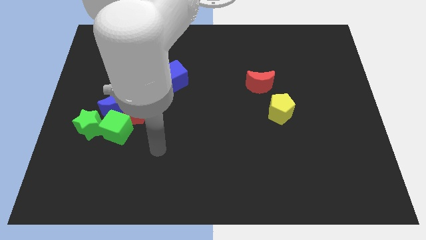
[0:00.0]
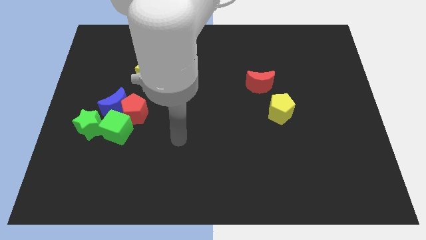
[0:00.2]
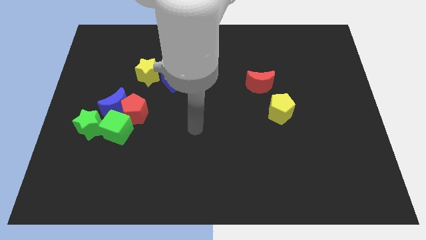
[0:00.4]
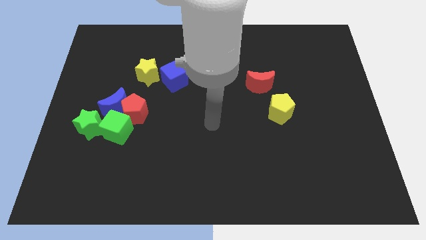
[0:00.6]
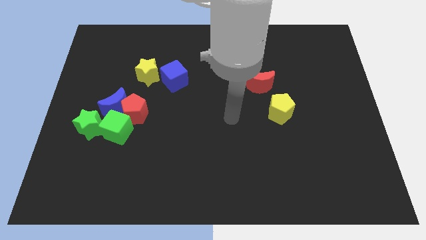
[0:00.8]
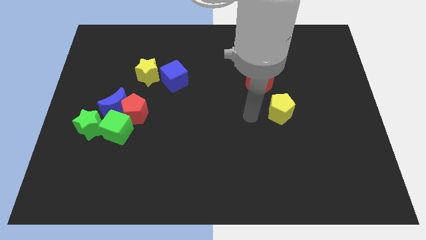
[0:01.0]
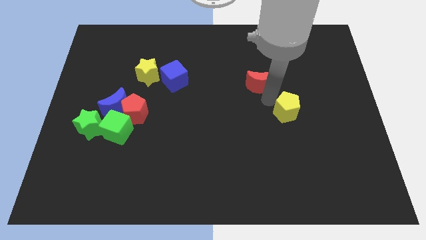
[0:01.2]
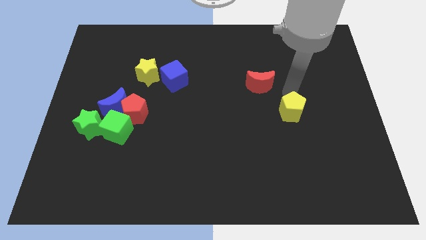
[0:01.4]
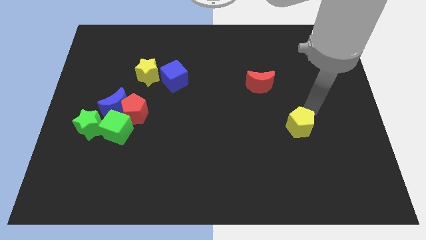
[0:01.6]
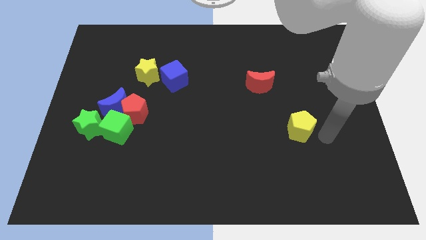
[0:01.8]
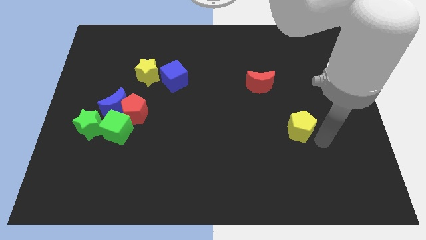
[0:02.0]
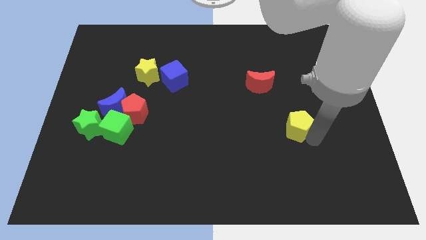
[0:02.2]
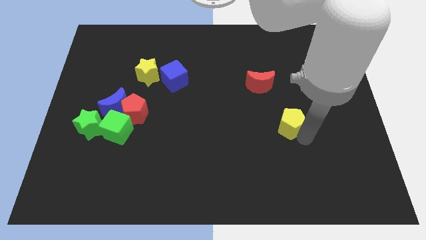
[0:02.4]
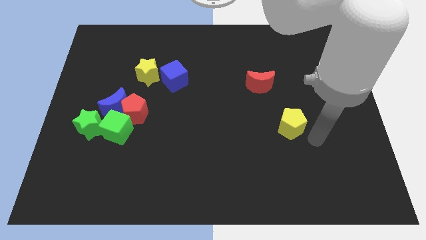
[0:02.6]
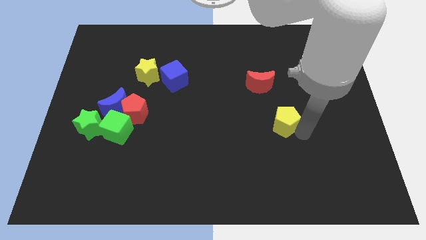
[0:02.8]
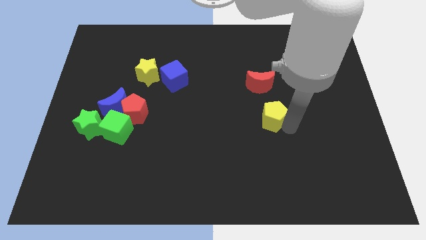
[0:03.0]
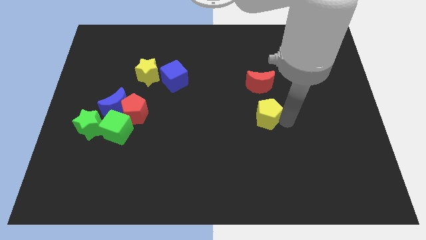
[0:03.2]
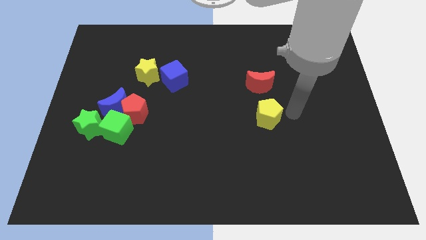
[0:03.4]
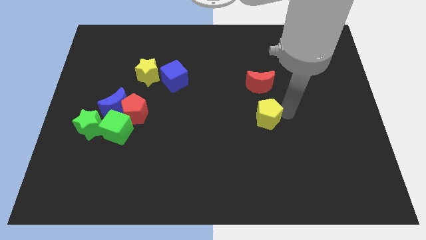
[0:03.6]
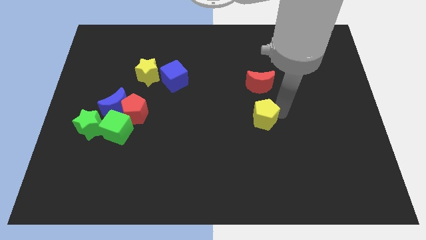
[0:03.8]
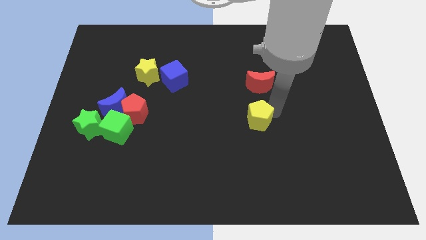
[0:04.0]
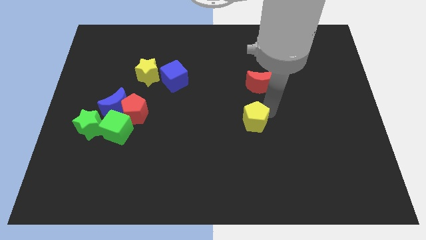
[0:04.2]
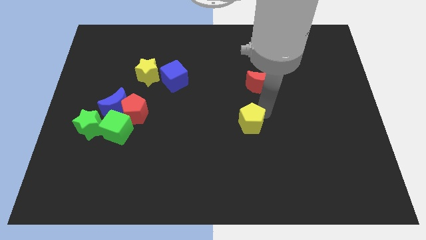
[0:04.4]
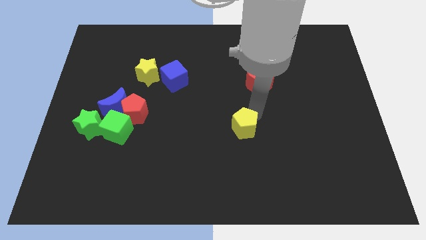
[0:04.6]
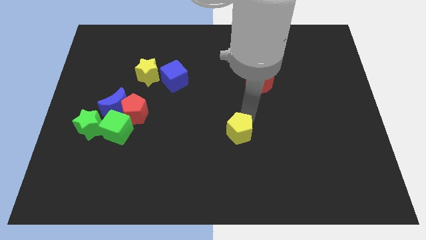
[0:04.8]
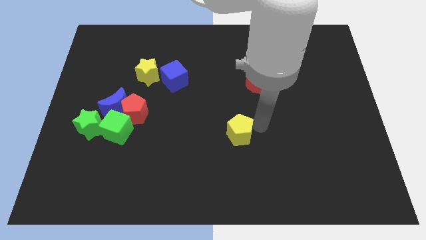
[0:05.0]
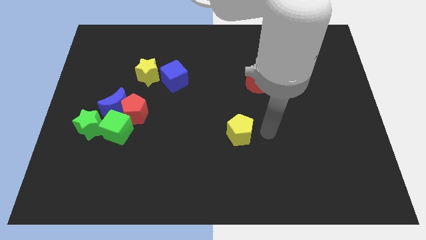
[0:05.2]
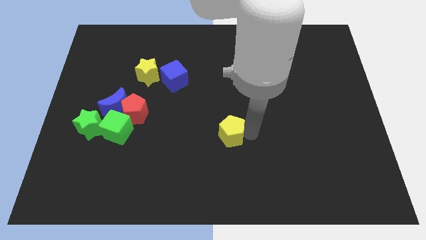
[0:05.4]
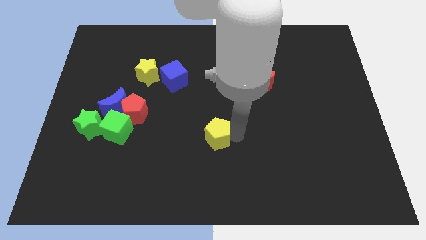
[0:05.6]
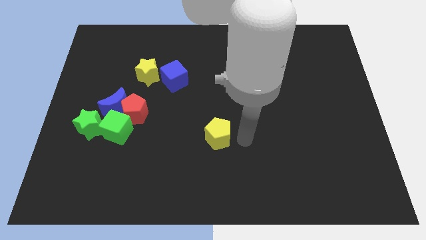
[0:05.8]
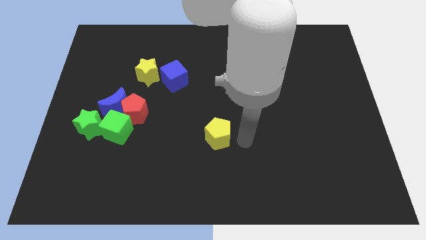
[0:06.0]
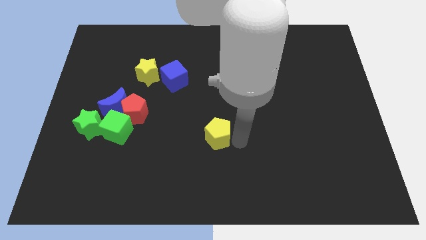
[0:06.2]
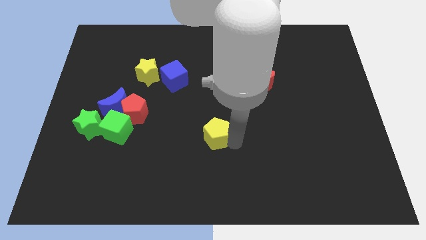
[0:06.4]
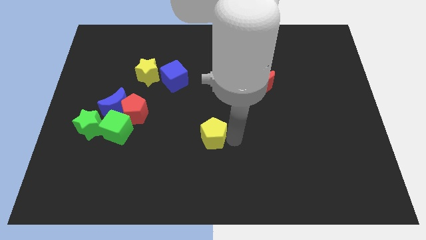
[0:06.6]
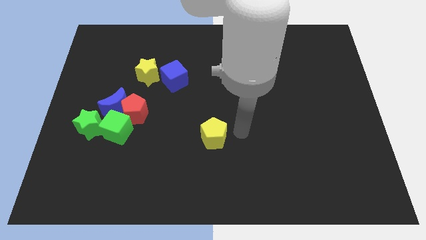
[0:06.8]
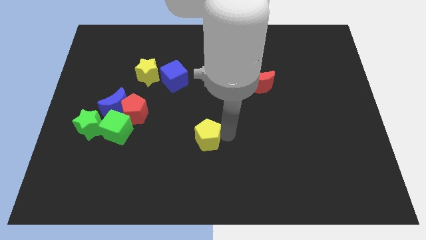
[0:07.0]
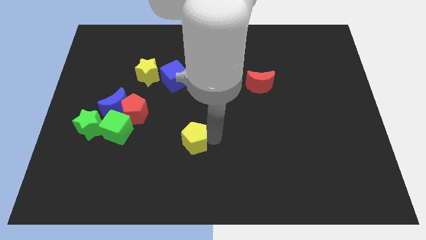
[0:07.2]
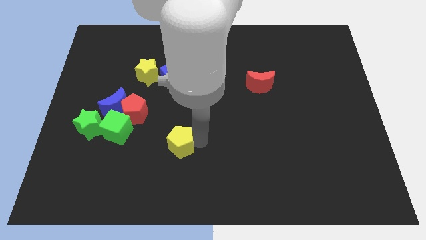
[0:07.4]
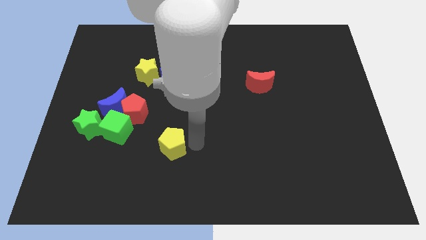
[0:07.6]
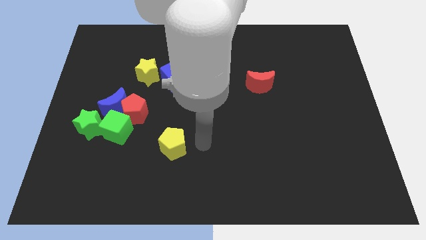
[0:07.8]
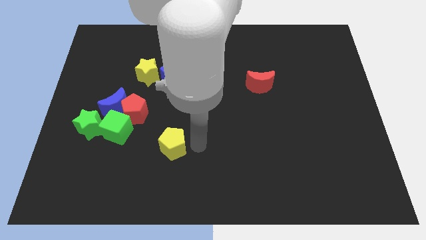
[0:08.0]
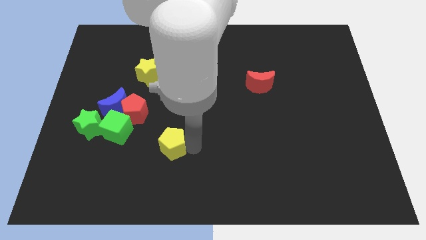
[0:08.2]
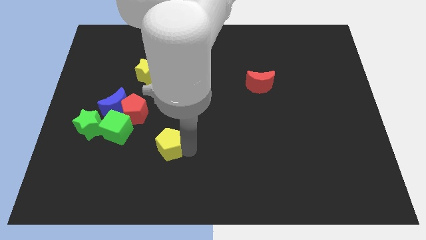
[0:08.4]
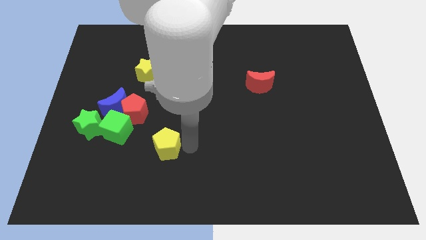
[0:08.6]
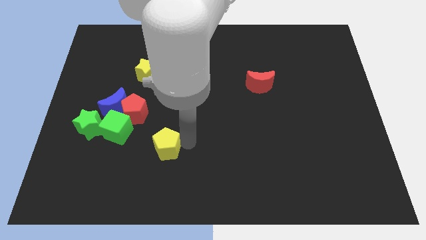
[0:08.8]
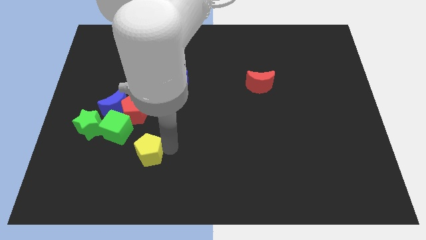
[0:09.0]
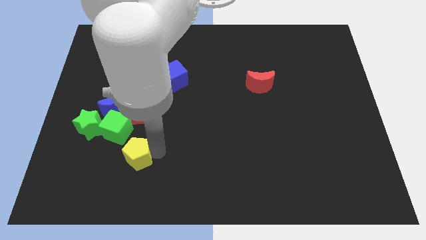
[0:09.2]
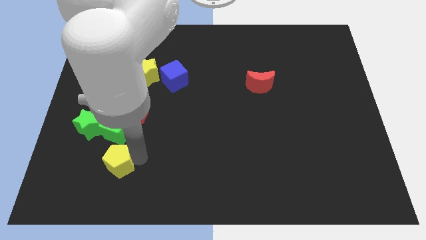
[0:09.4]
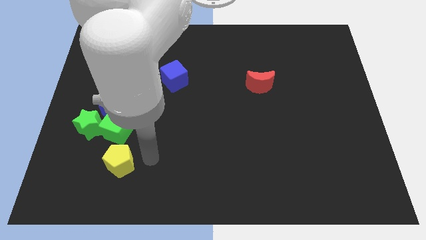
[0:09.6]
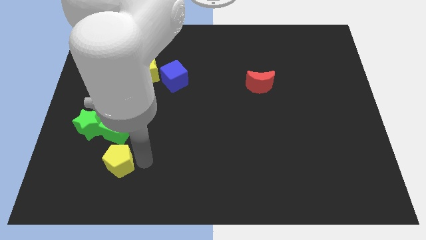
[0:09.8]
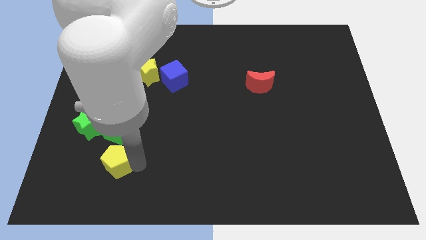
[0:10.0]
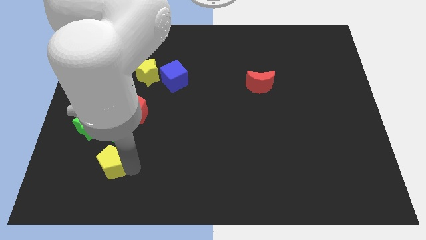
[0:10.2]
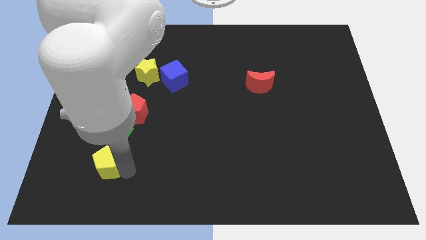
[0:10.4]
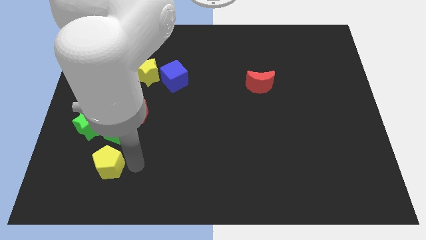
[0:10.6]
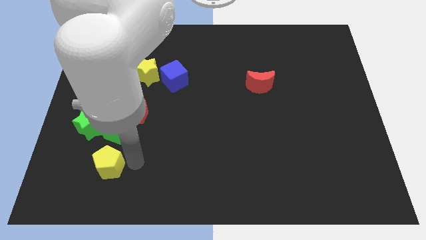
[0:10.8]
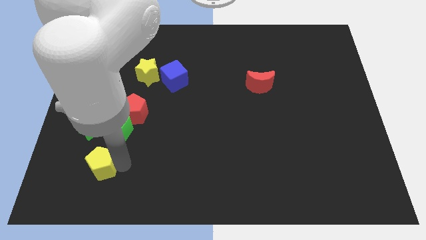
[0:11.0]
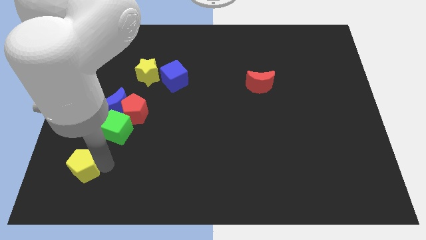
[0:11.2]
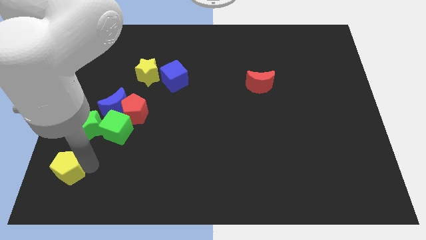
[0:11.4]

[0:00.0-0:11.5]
slide the yellow pentagon to the bottom left of the board

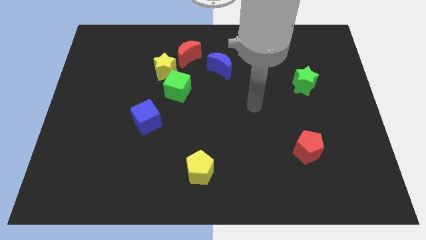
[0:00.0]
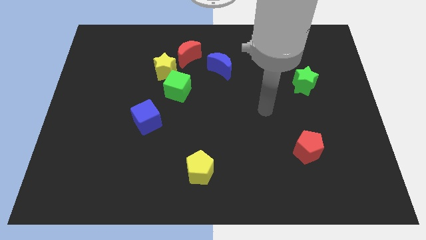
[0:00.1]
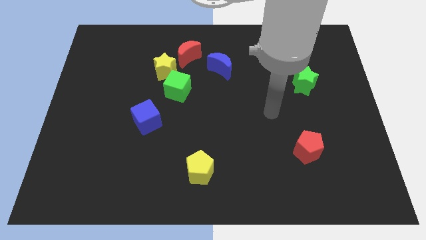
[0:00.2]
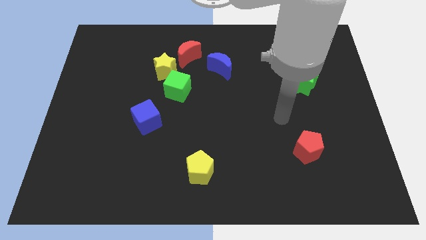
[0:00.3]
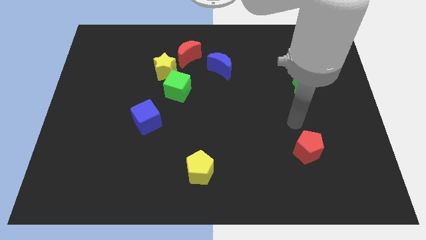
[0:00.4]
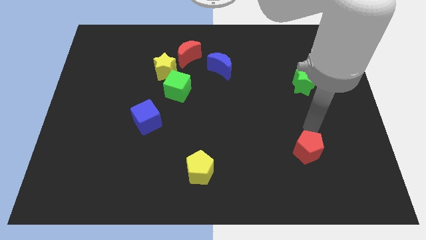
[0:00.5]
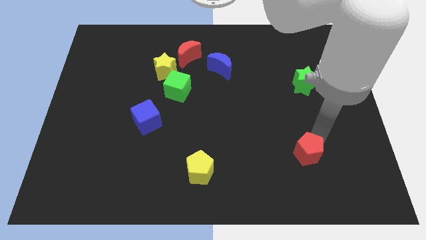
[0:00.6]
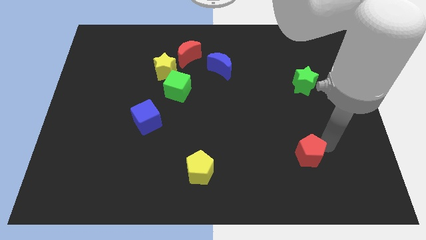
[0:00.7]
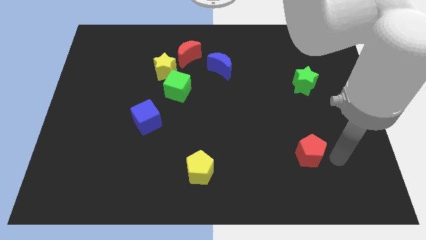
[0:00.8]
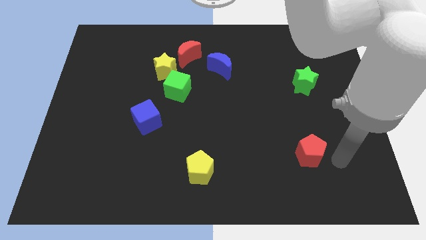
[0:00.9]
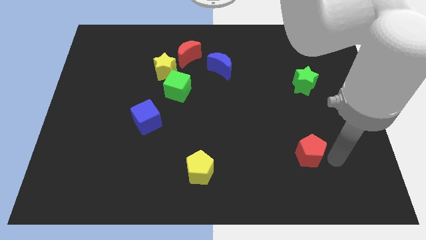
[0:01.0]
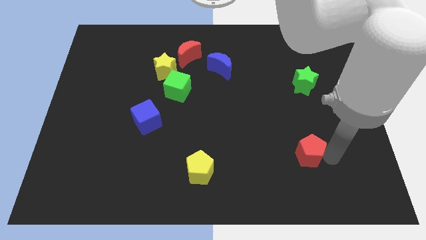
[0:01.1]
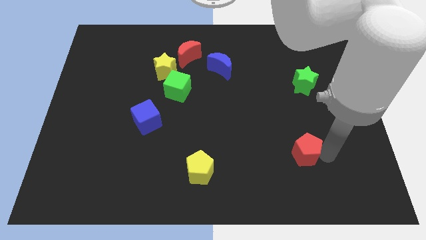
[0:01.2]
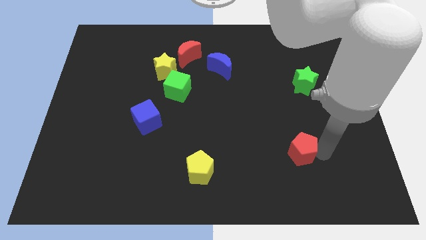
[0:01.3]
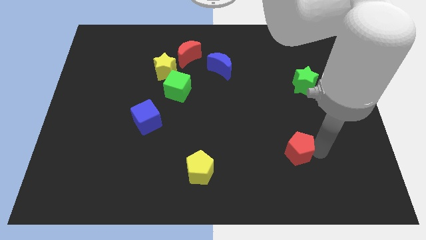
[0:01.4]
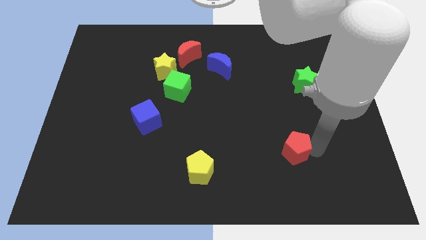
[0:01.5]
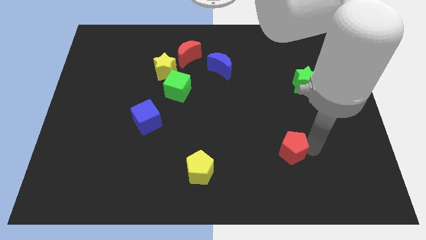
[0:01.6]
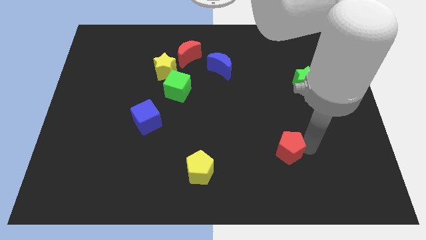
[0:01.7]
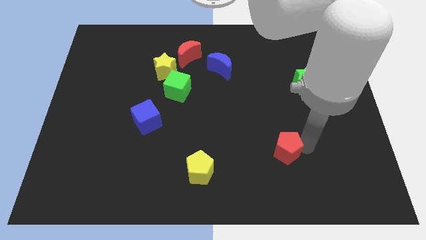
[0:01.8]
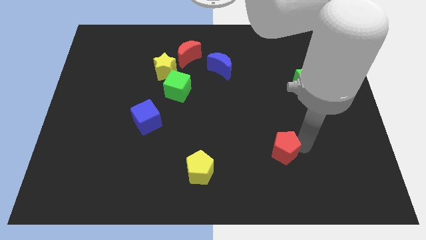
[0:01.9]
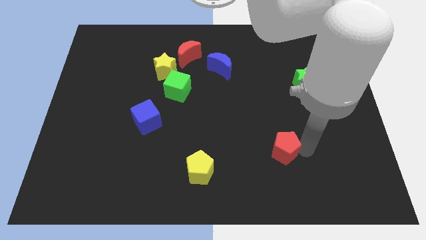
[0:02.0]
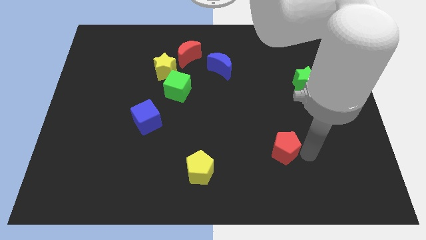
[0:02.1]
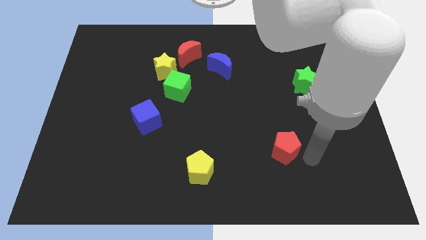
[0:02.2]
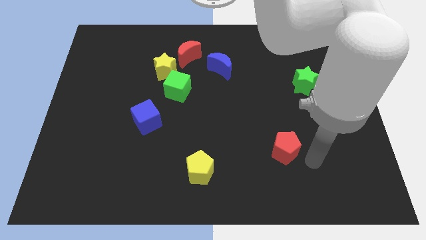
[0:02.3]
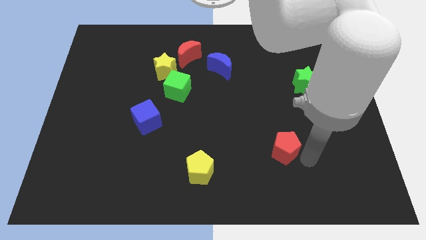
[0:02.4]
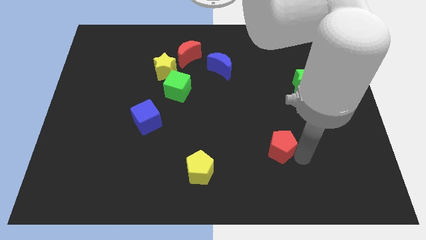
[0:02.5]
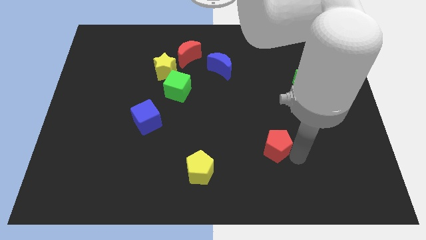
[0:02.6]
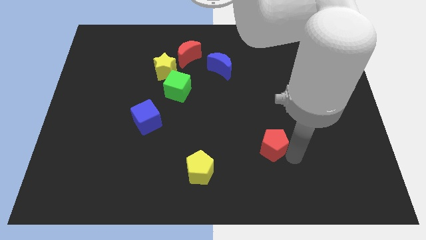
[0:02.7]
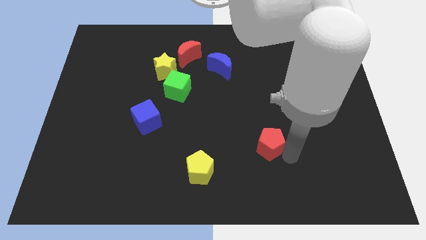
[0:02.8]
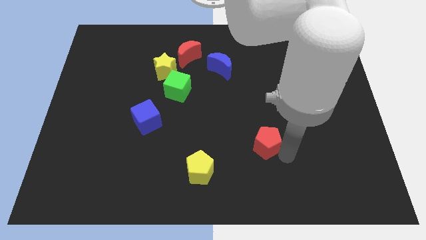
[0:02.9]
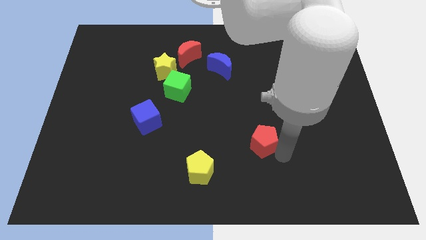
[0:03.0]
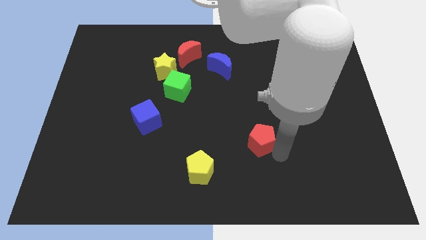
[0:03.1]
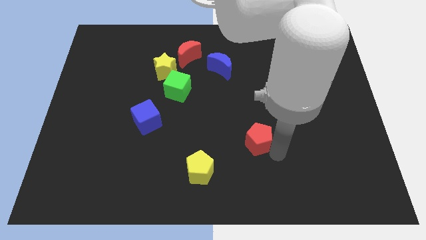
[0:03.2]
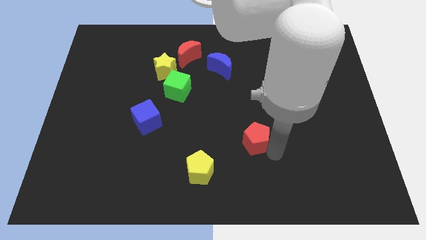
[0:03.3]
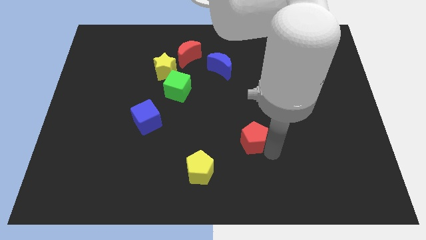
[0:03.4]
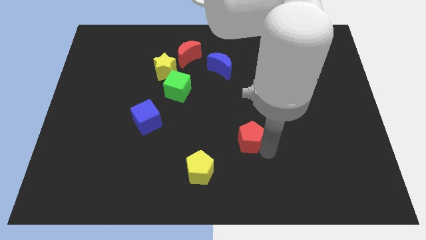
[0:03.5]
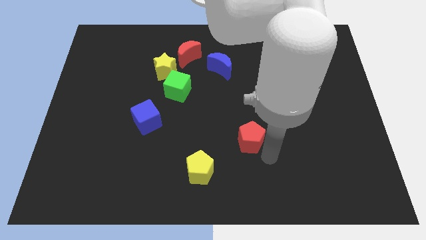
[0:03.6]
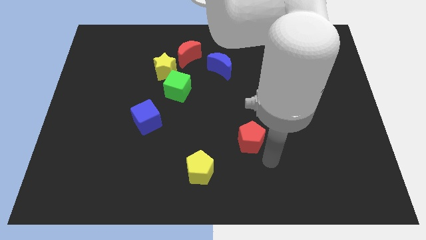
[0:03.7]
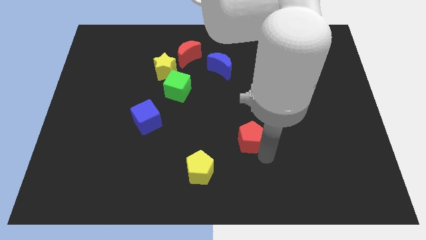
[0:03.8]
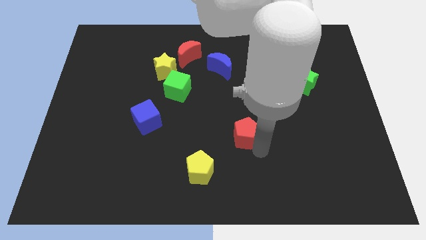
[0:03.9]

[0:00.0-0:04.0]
put the red pentagon to the center
